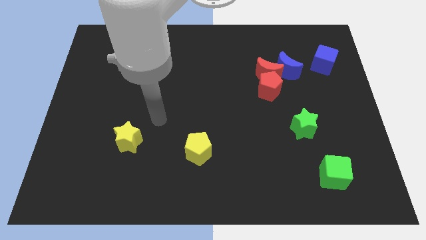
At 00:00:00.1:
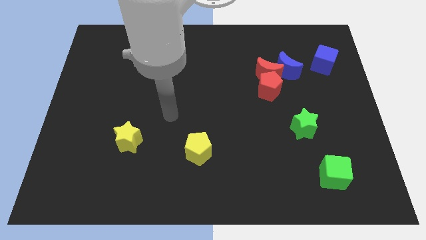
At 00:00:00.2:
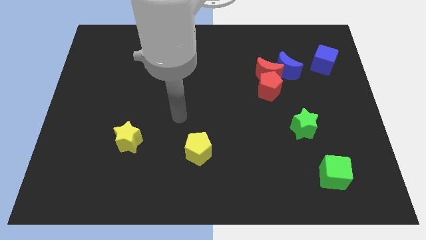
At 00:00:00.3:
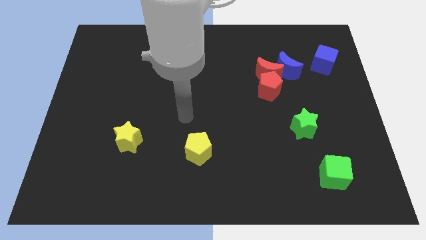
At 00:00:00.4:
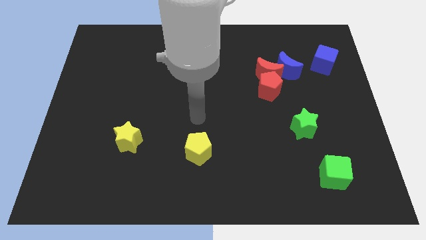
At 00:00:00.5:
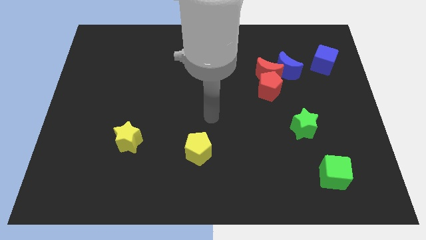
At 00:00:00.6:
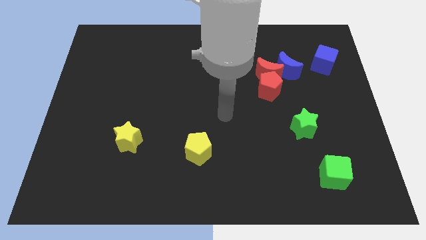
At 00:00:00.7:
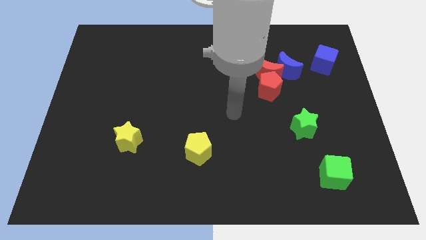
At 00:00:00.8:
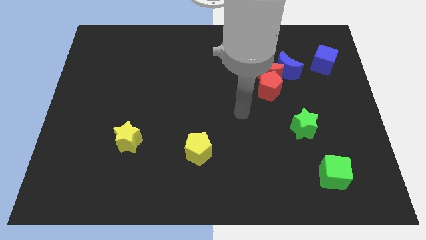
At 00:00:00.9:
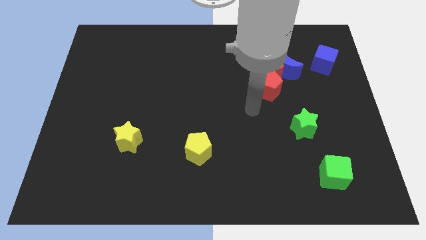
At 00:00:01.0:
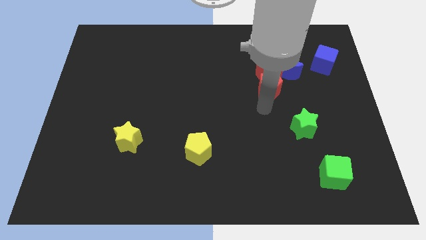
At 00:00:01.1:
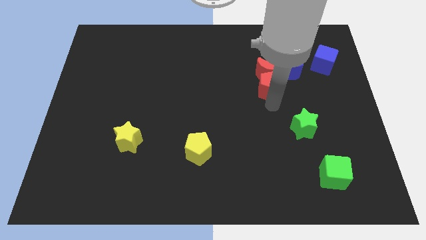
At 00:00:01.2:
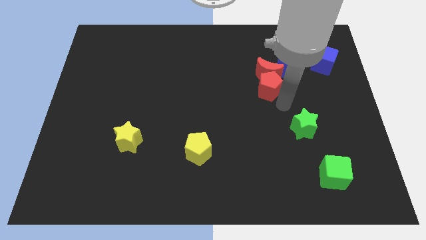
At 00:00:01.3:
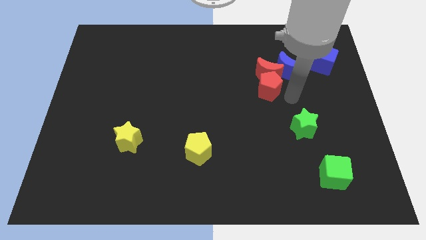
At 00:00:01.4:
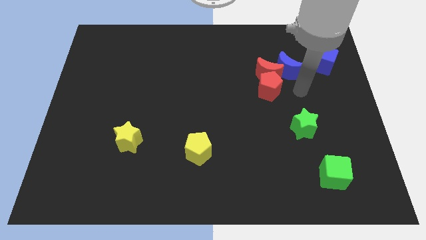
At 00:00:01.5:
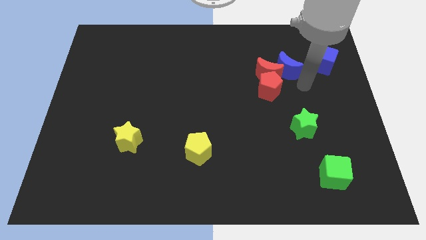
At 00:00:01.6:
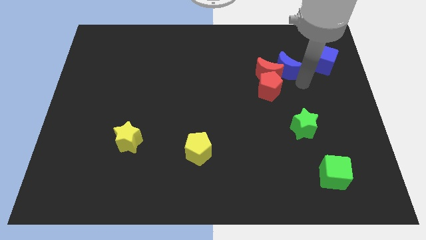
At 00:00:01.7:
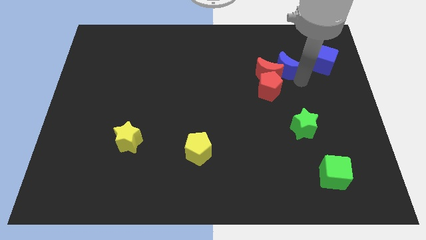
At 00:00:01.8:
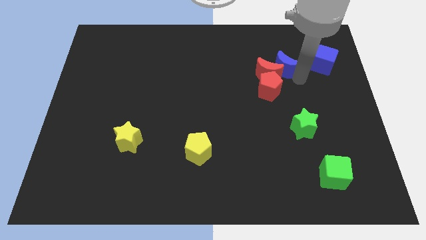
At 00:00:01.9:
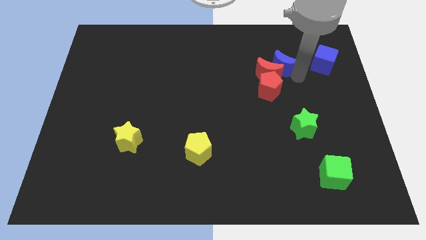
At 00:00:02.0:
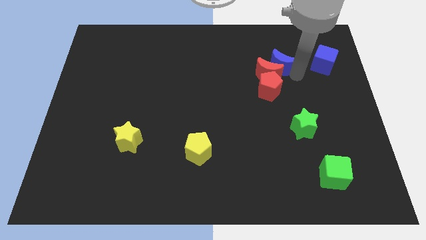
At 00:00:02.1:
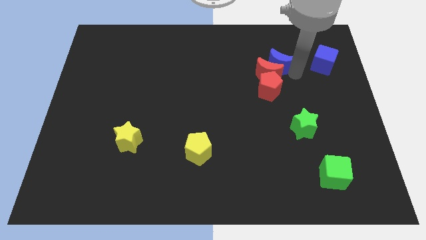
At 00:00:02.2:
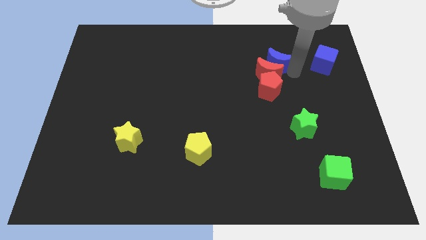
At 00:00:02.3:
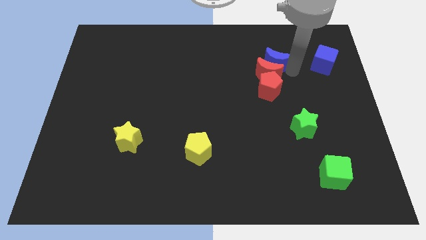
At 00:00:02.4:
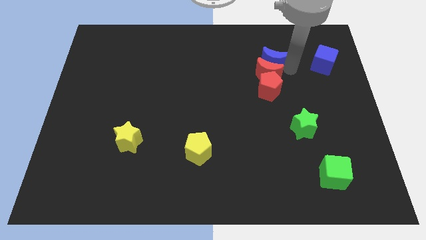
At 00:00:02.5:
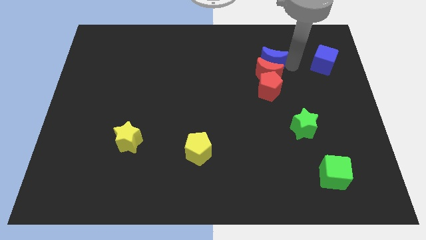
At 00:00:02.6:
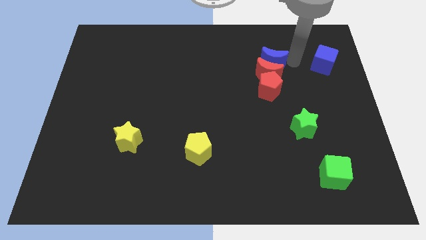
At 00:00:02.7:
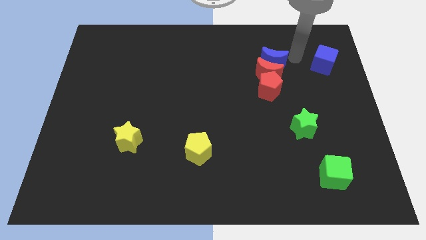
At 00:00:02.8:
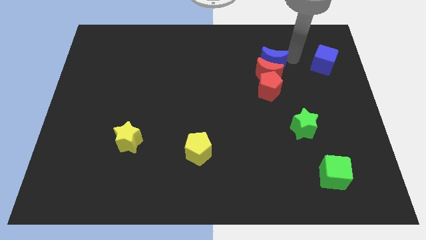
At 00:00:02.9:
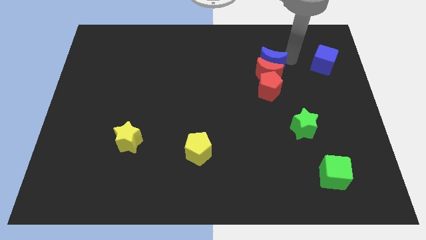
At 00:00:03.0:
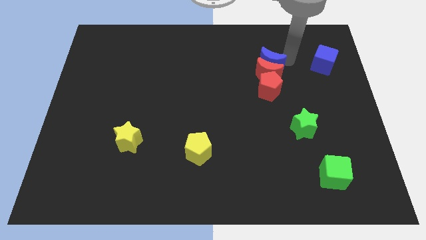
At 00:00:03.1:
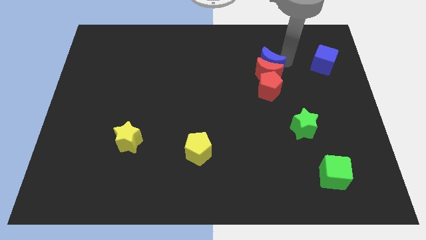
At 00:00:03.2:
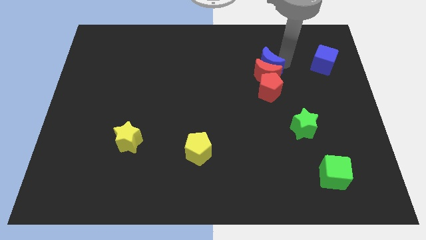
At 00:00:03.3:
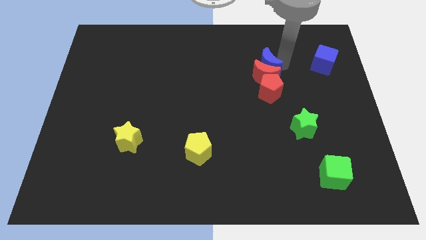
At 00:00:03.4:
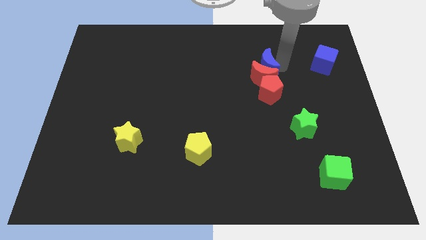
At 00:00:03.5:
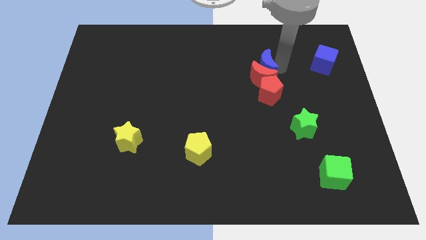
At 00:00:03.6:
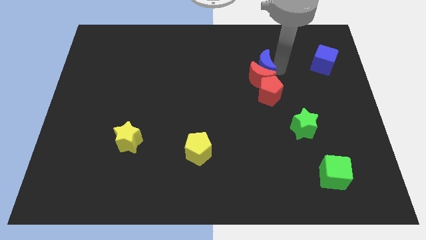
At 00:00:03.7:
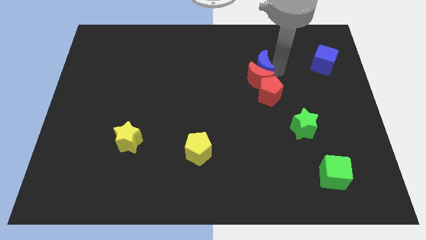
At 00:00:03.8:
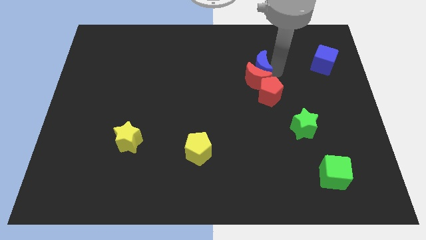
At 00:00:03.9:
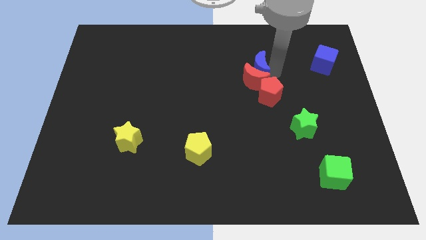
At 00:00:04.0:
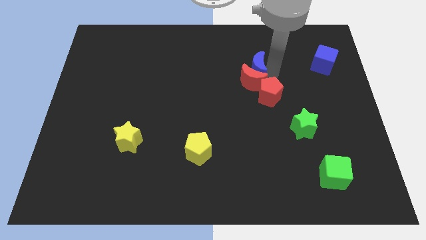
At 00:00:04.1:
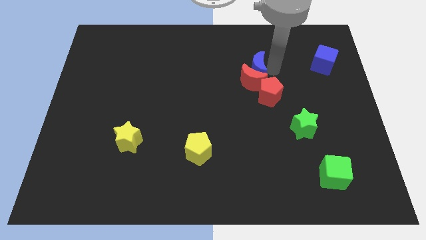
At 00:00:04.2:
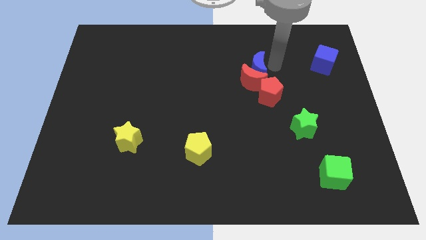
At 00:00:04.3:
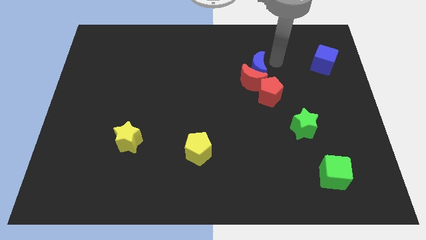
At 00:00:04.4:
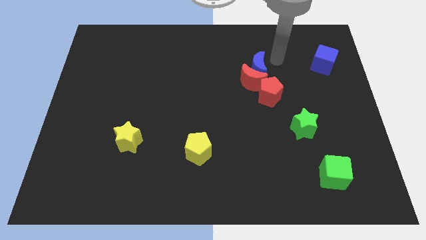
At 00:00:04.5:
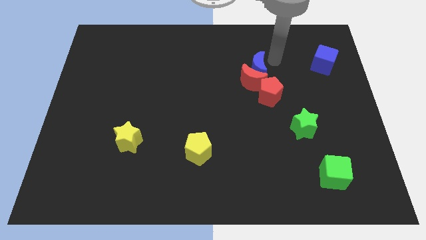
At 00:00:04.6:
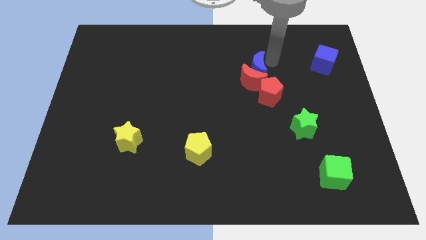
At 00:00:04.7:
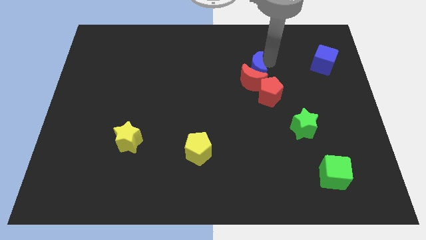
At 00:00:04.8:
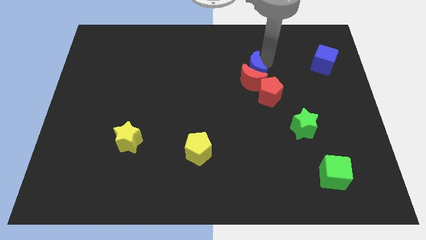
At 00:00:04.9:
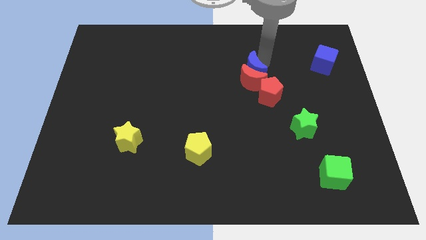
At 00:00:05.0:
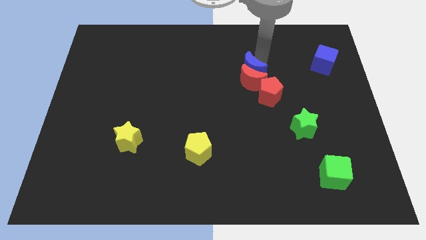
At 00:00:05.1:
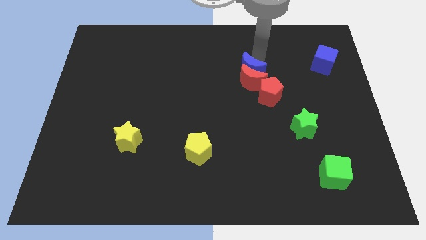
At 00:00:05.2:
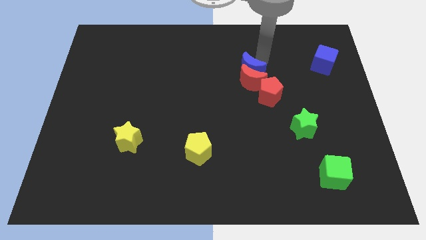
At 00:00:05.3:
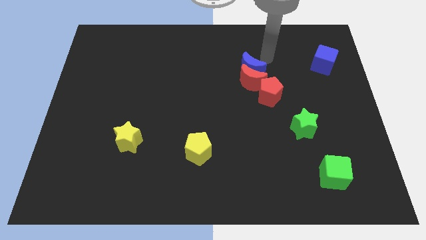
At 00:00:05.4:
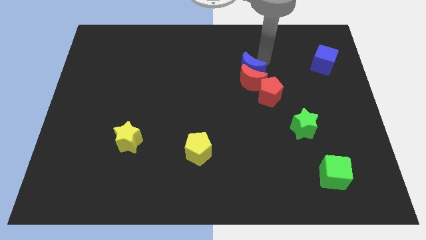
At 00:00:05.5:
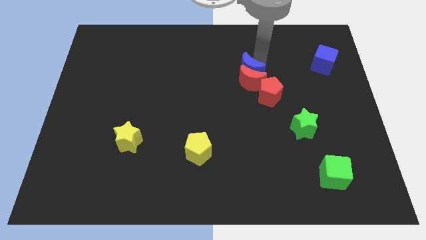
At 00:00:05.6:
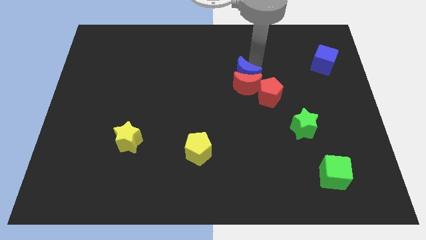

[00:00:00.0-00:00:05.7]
slide the blue moon to the center

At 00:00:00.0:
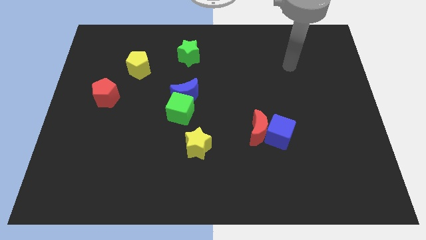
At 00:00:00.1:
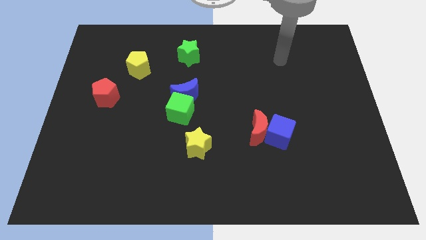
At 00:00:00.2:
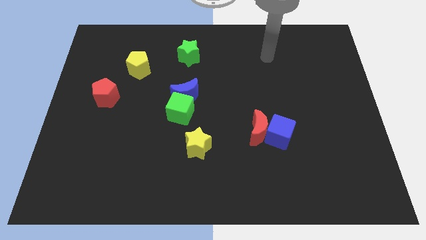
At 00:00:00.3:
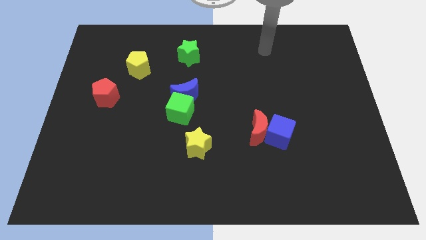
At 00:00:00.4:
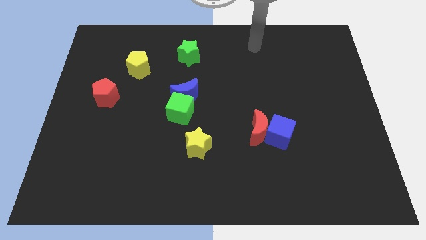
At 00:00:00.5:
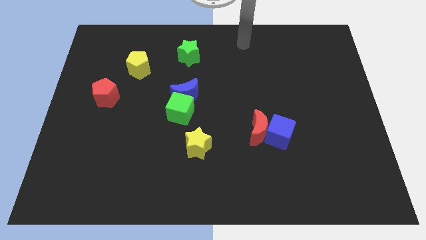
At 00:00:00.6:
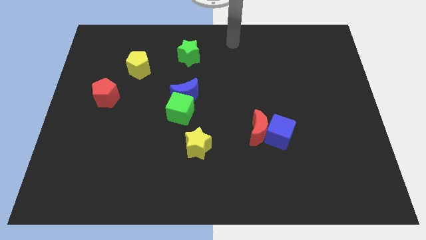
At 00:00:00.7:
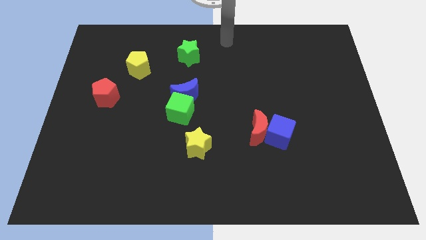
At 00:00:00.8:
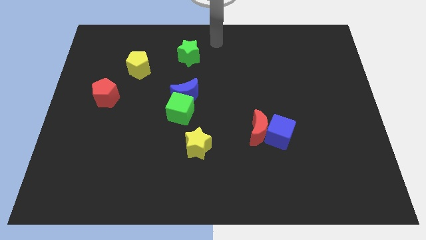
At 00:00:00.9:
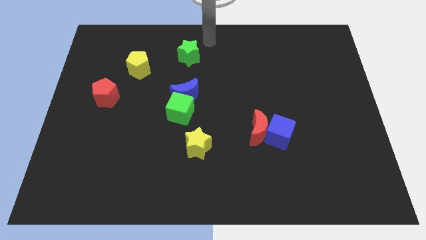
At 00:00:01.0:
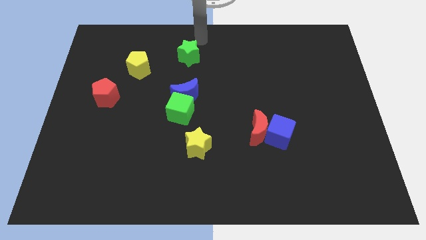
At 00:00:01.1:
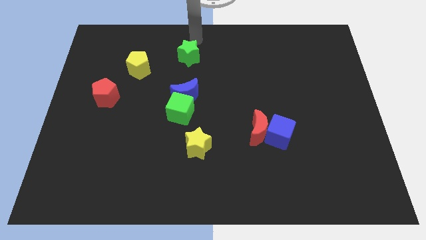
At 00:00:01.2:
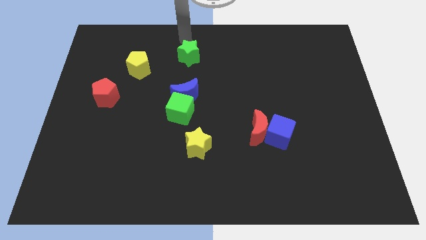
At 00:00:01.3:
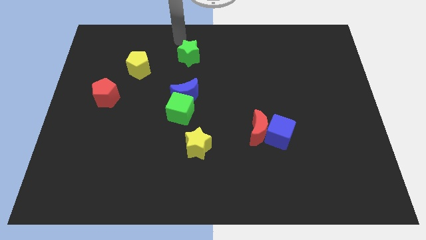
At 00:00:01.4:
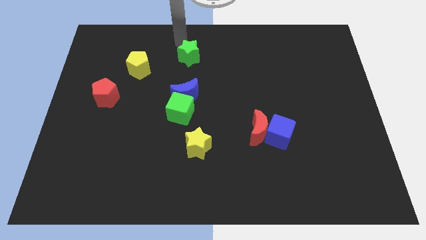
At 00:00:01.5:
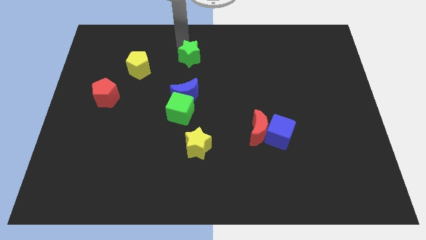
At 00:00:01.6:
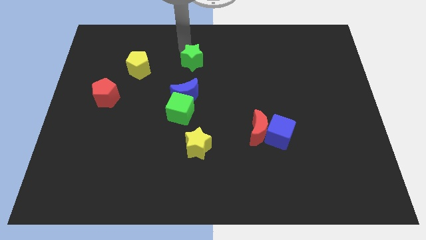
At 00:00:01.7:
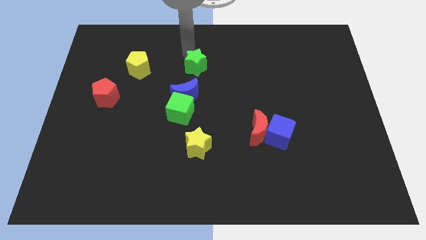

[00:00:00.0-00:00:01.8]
move the green star to the center of the board
